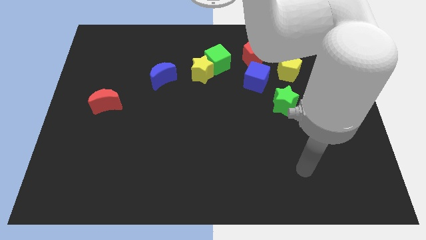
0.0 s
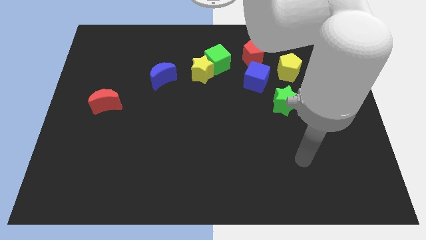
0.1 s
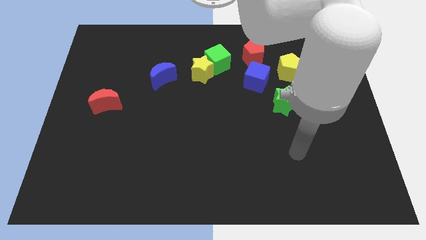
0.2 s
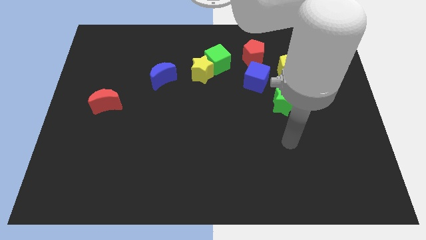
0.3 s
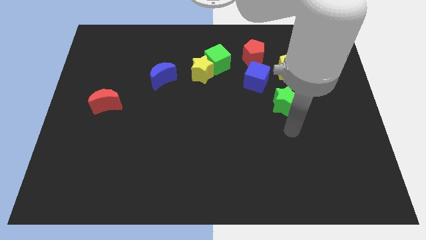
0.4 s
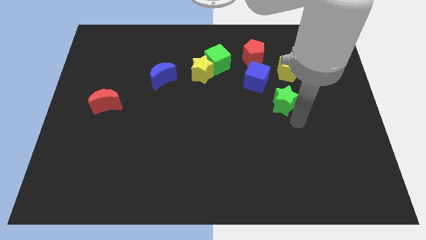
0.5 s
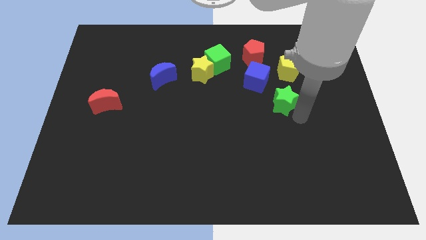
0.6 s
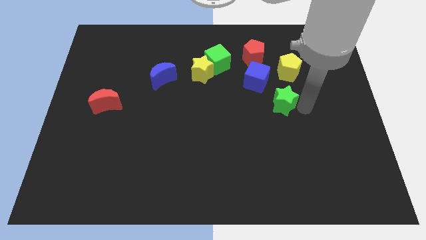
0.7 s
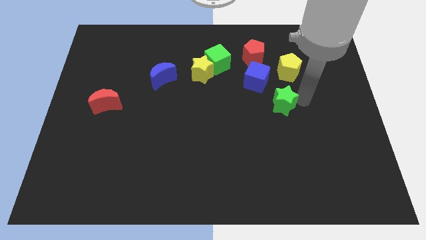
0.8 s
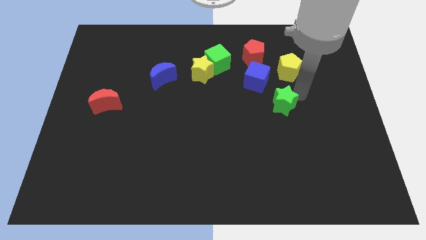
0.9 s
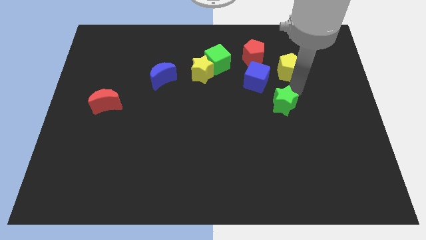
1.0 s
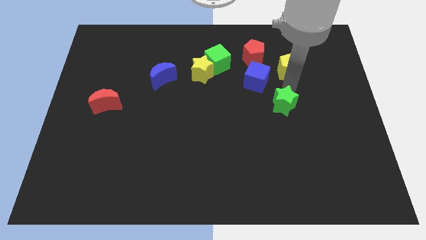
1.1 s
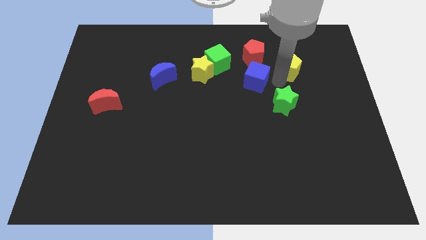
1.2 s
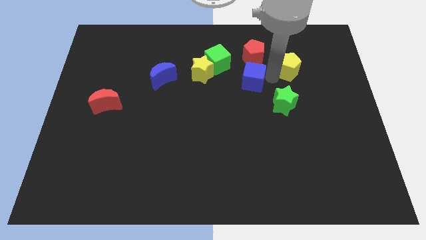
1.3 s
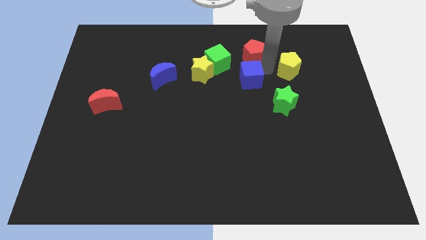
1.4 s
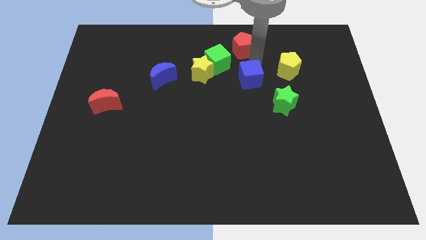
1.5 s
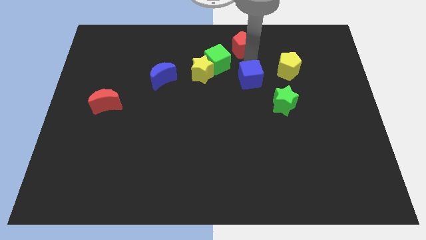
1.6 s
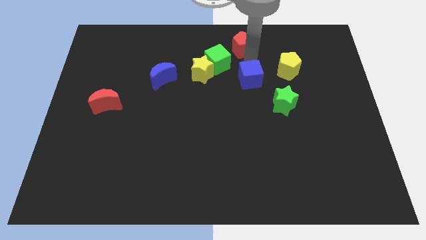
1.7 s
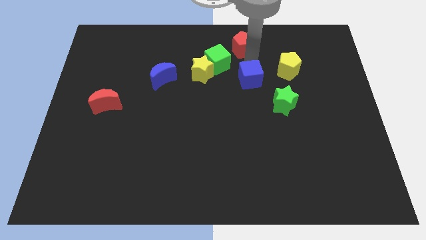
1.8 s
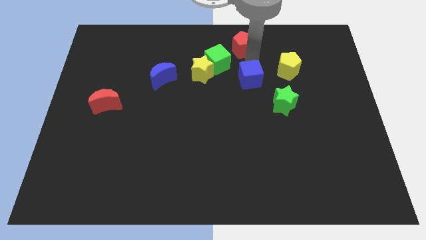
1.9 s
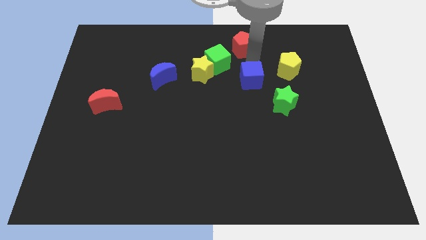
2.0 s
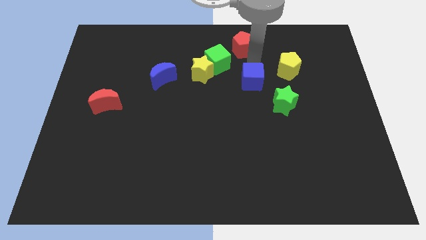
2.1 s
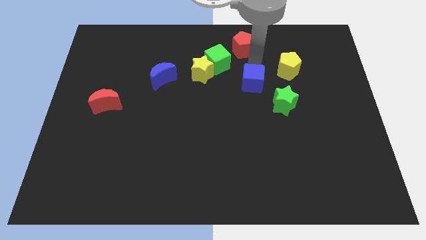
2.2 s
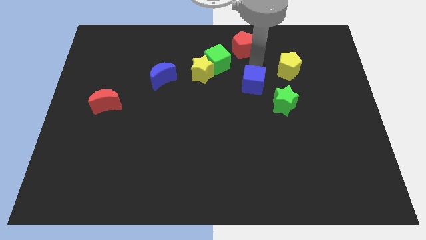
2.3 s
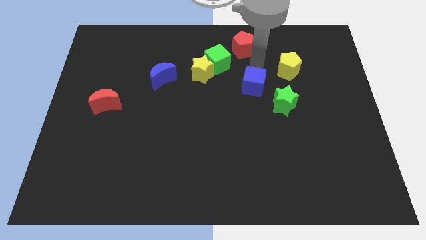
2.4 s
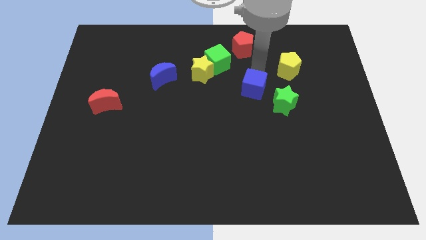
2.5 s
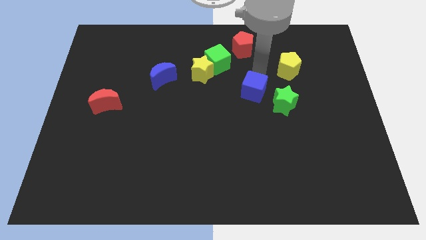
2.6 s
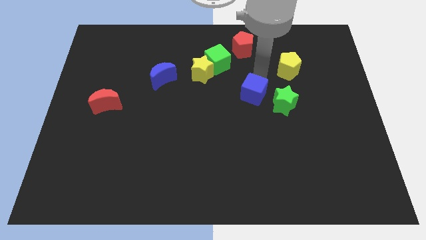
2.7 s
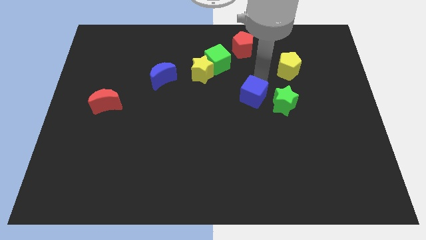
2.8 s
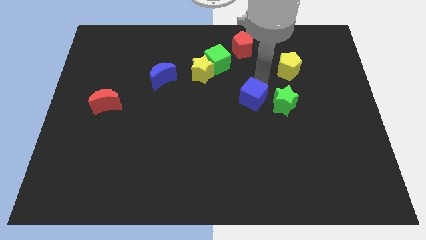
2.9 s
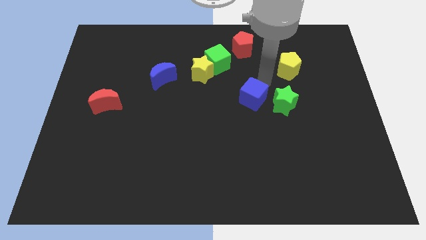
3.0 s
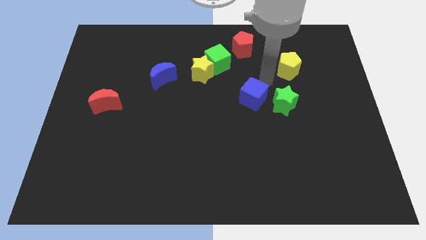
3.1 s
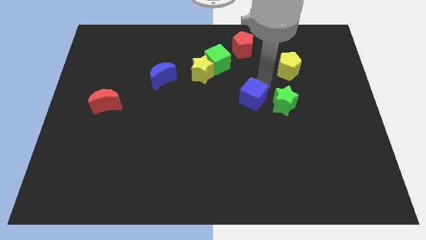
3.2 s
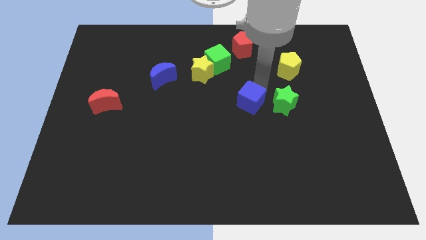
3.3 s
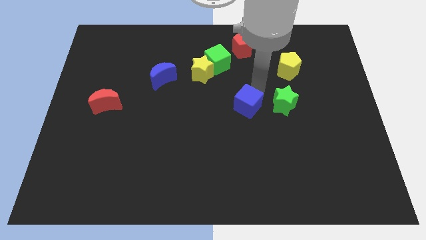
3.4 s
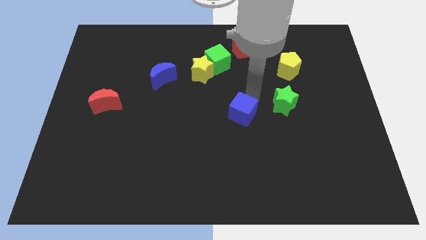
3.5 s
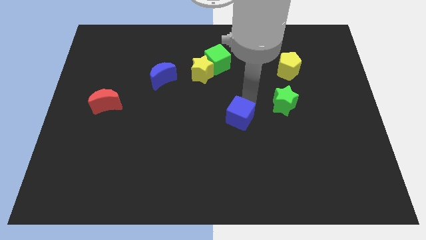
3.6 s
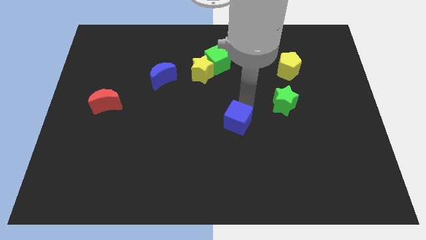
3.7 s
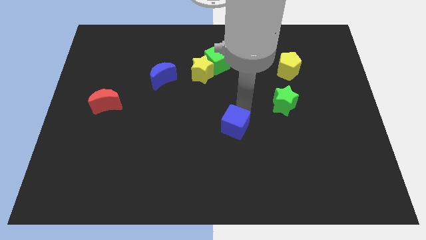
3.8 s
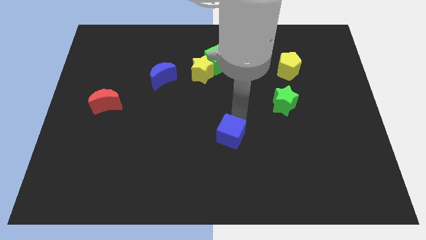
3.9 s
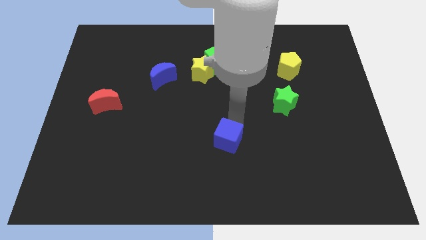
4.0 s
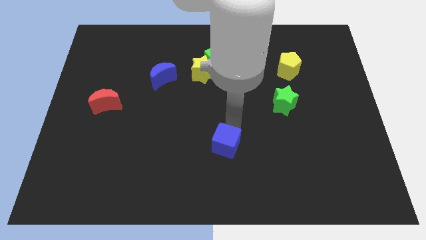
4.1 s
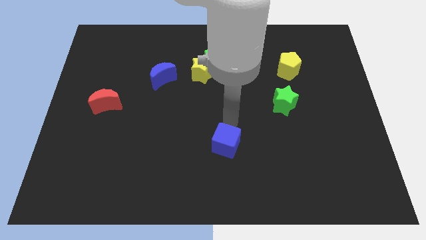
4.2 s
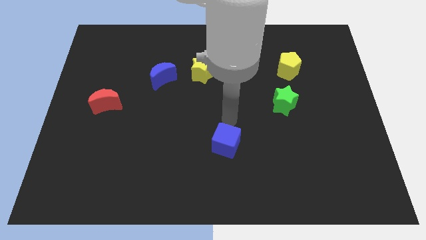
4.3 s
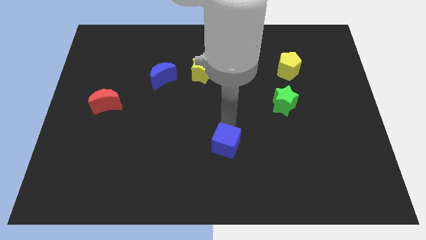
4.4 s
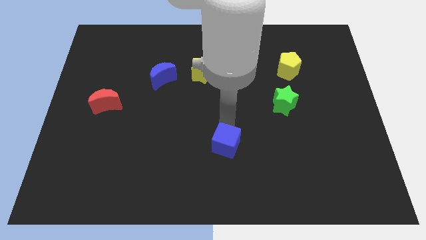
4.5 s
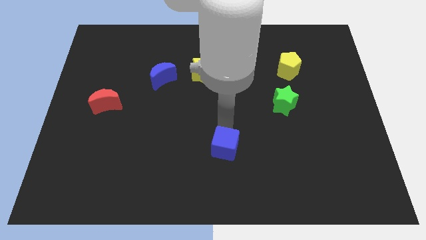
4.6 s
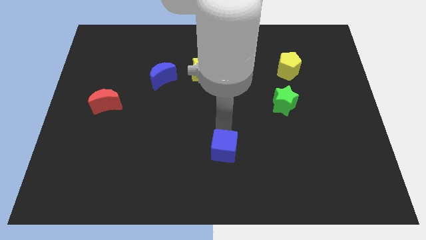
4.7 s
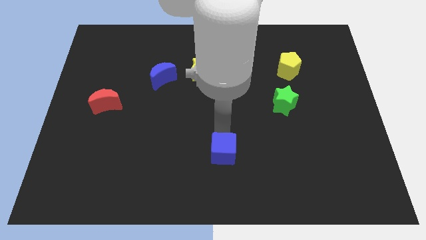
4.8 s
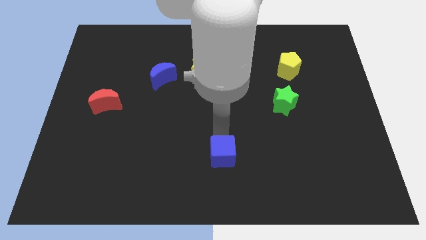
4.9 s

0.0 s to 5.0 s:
move the blue cube to the bottom side

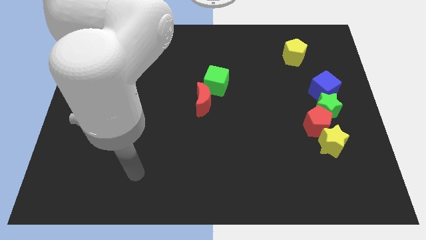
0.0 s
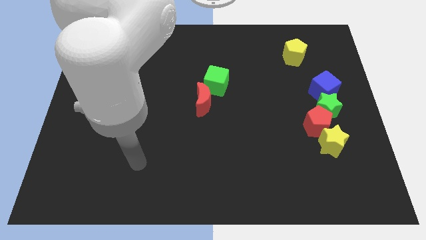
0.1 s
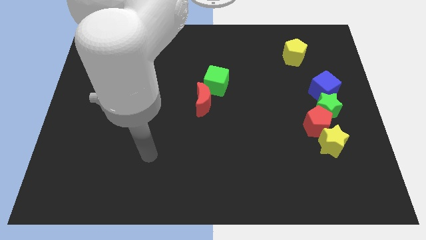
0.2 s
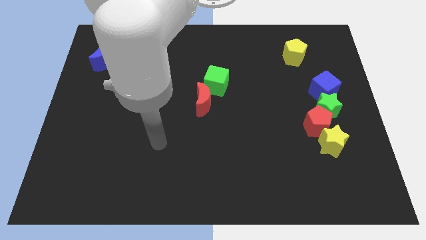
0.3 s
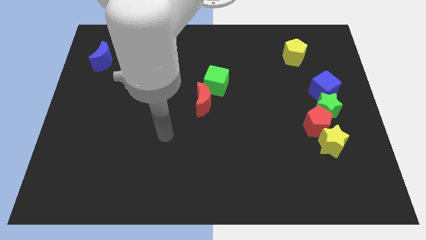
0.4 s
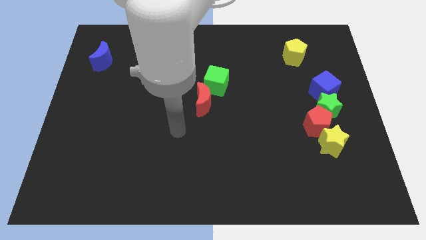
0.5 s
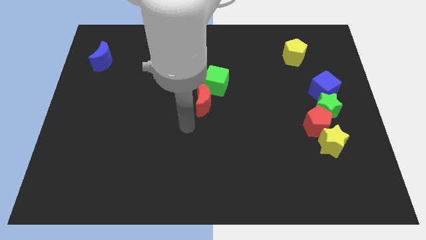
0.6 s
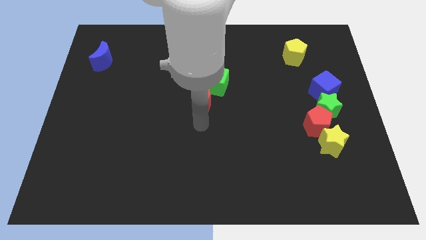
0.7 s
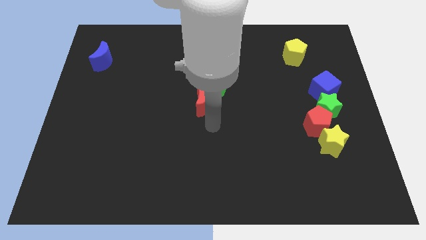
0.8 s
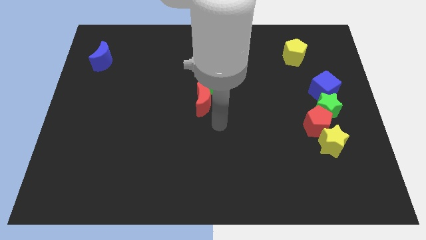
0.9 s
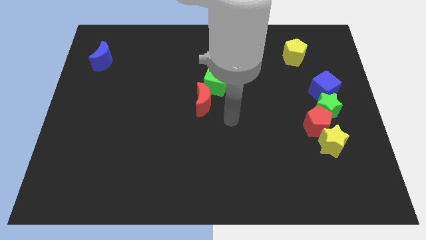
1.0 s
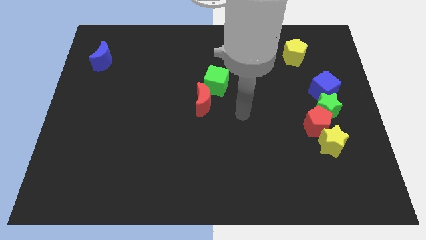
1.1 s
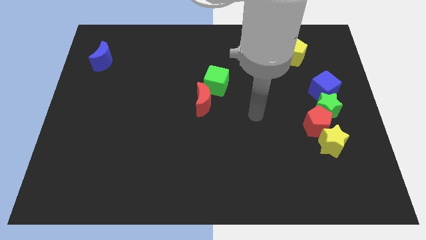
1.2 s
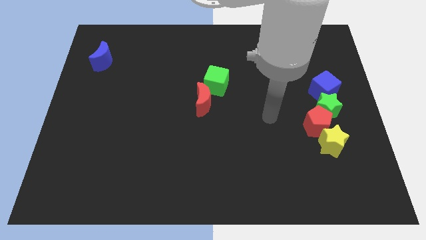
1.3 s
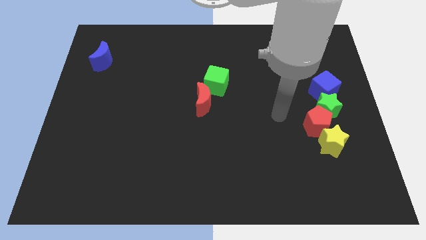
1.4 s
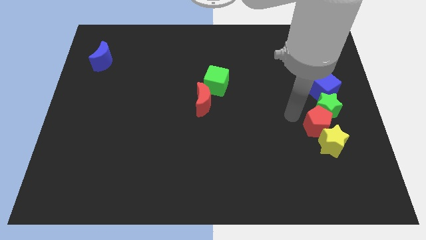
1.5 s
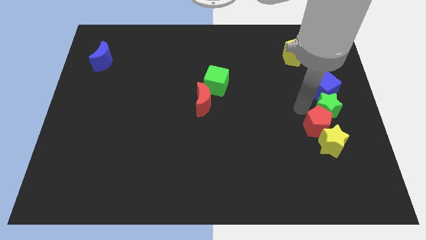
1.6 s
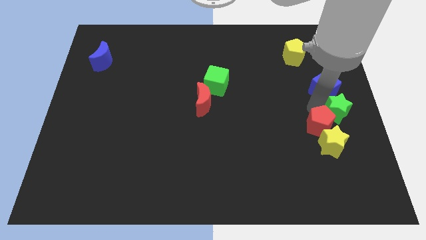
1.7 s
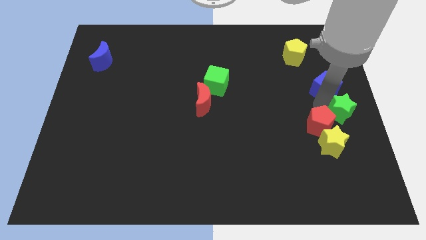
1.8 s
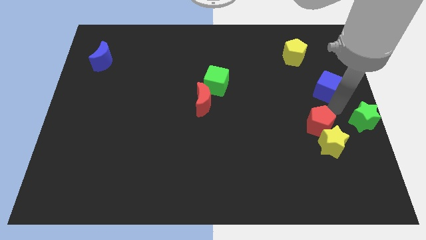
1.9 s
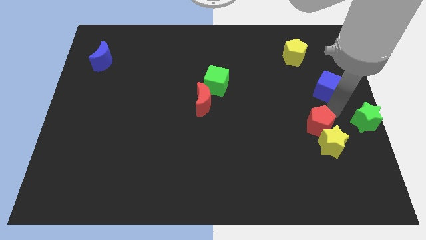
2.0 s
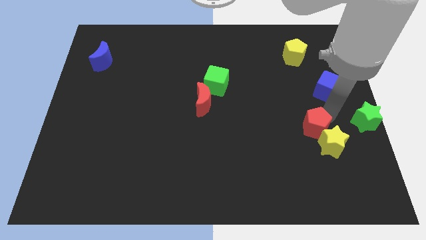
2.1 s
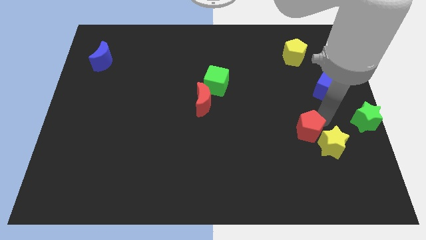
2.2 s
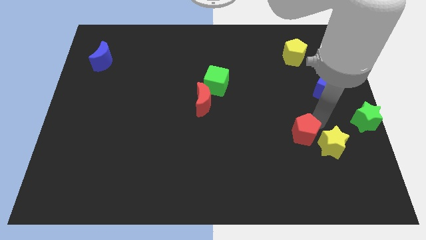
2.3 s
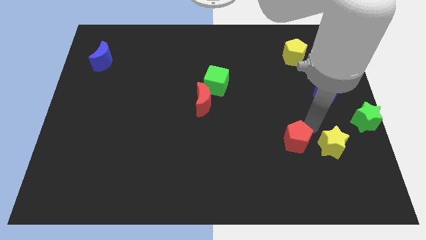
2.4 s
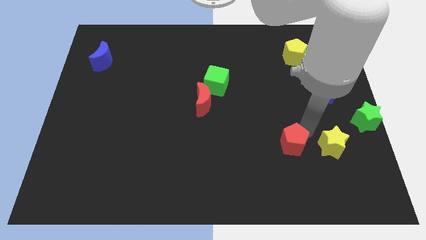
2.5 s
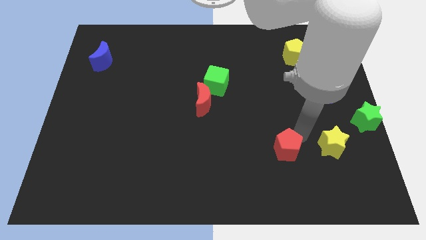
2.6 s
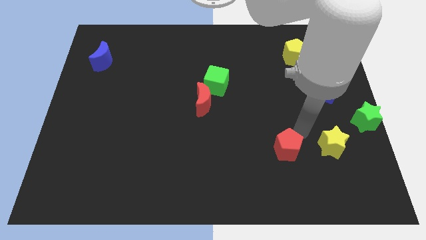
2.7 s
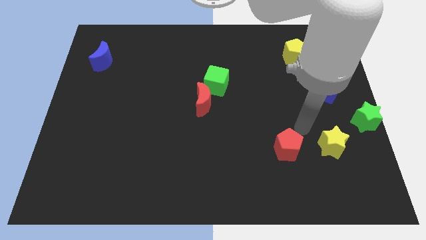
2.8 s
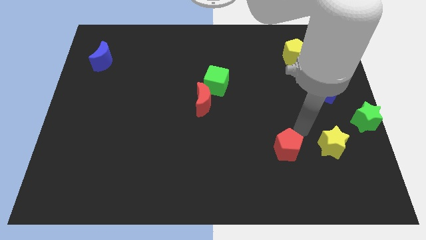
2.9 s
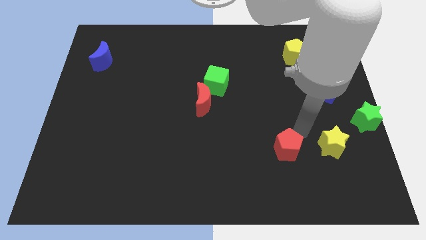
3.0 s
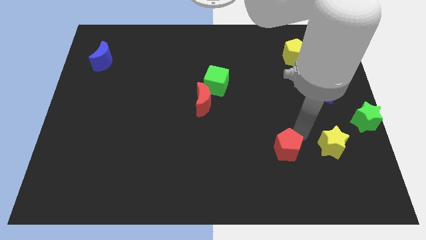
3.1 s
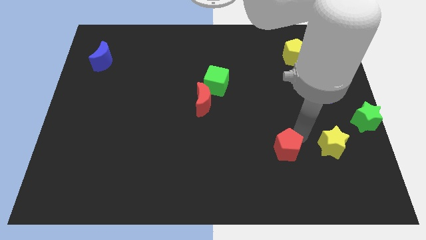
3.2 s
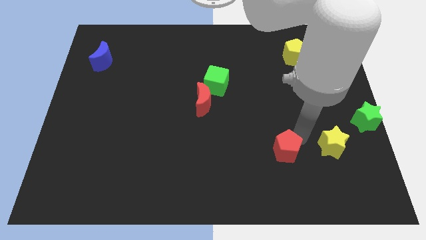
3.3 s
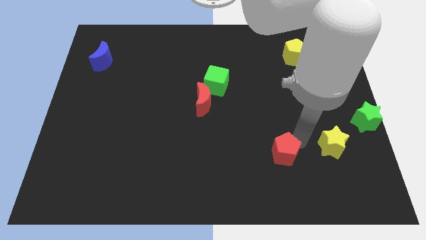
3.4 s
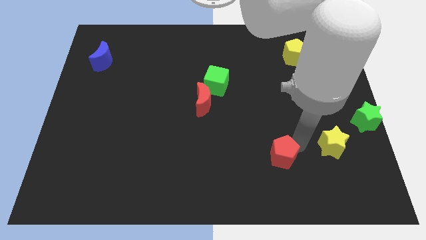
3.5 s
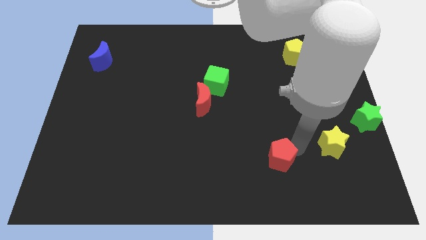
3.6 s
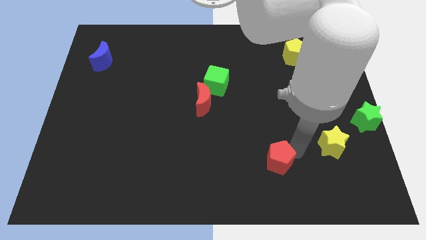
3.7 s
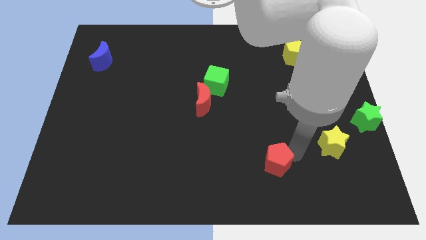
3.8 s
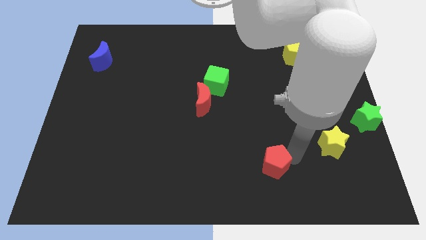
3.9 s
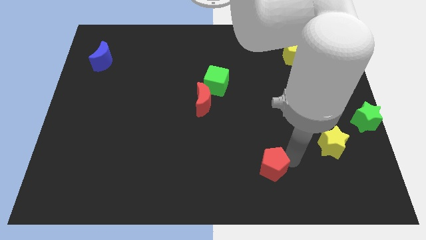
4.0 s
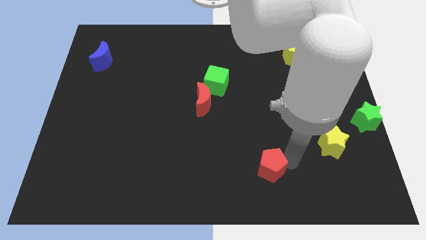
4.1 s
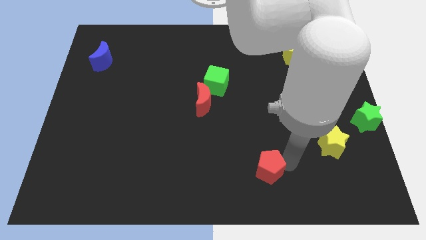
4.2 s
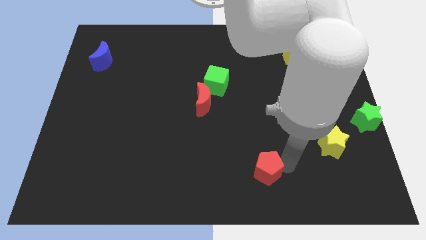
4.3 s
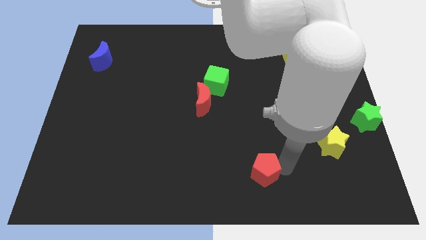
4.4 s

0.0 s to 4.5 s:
put the red pentagon to the bottom side
